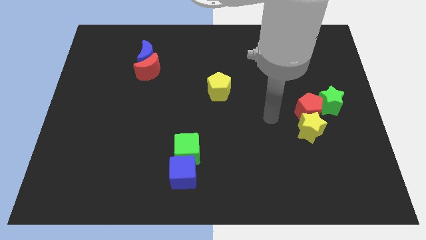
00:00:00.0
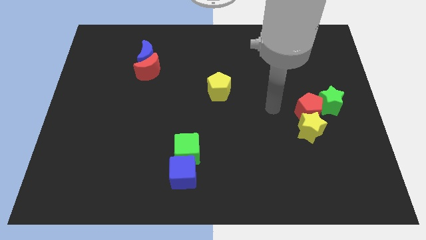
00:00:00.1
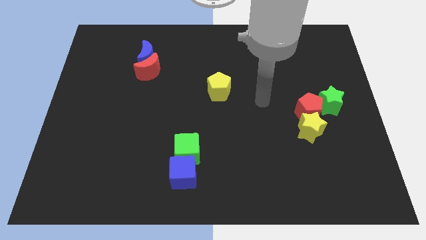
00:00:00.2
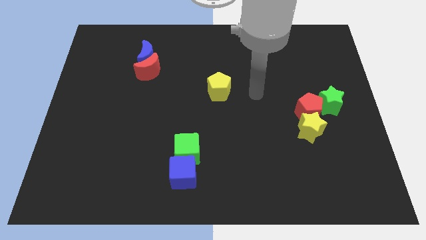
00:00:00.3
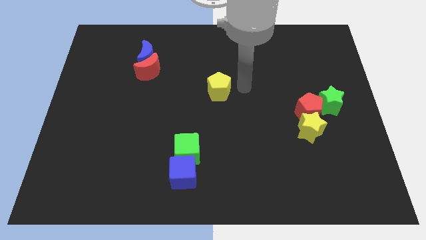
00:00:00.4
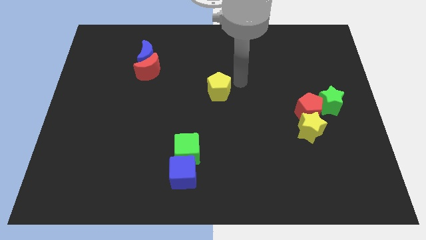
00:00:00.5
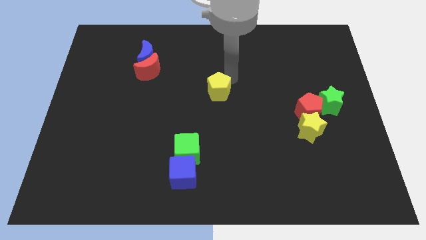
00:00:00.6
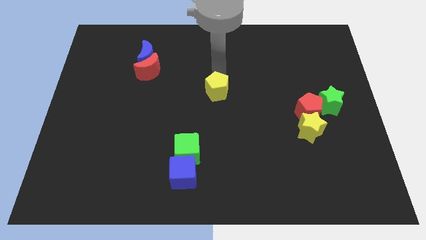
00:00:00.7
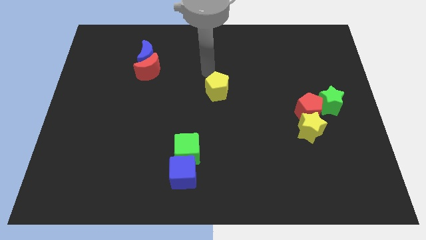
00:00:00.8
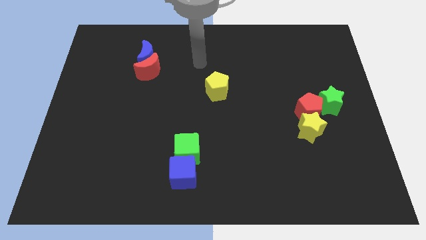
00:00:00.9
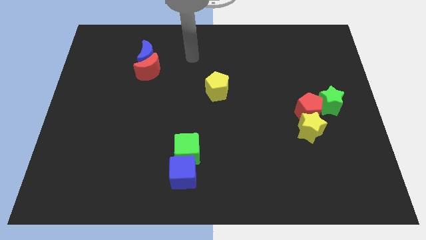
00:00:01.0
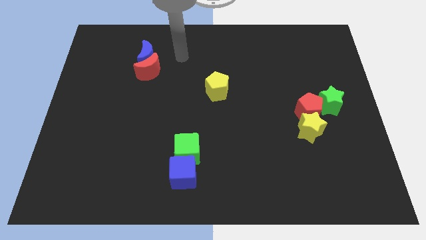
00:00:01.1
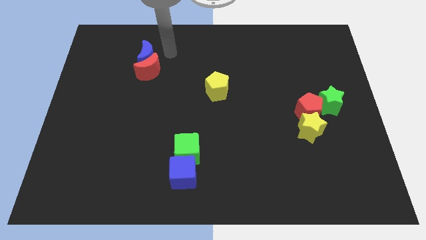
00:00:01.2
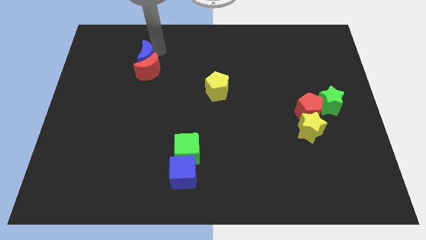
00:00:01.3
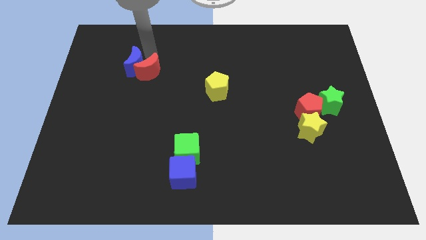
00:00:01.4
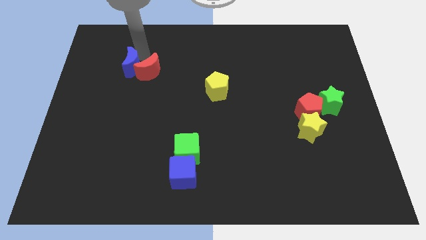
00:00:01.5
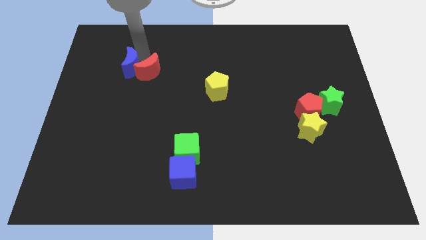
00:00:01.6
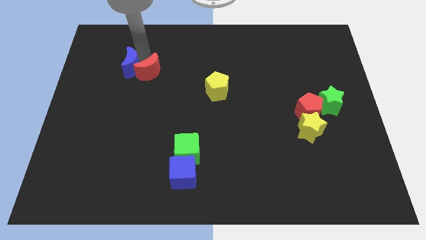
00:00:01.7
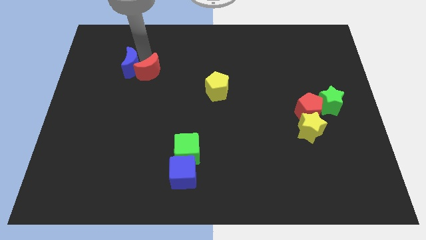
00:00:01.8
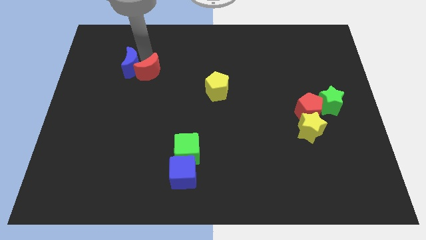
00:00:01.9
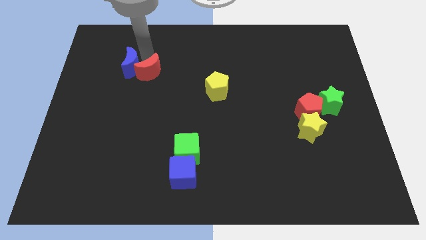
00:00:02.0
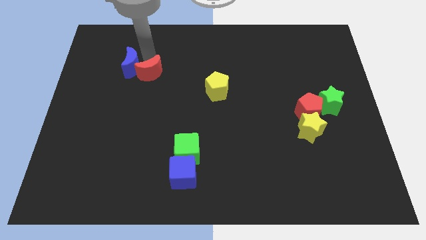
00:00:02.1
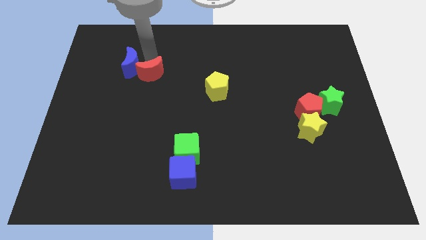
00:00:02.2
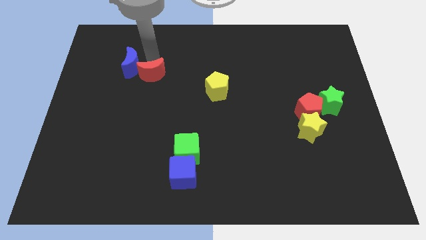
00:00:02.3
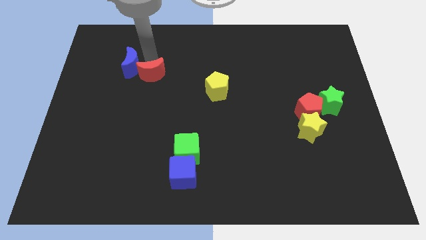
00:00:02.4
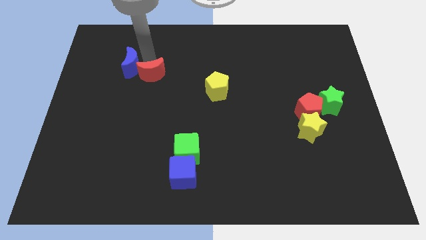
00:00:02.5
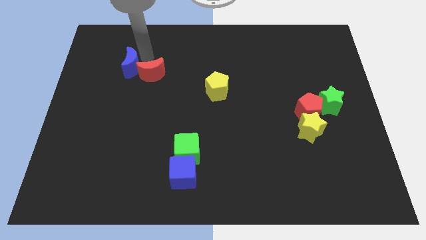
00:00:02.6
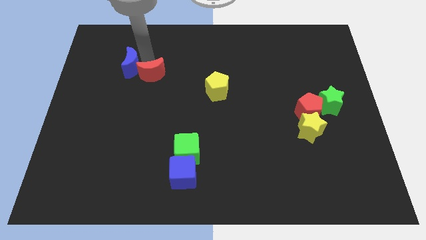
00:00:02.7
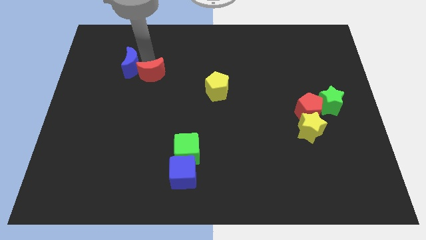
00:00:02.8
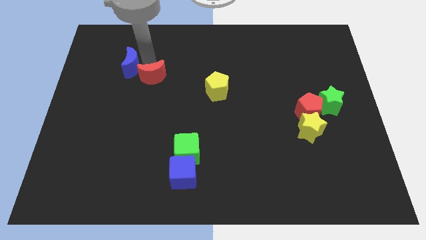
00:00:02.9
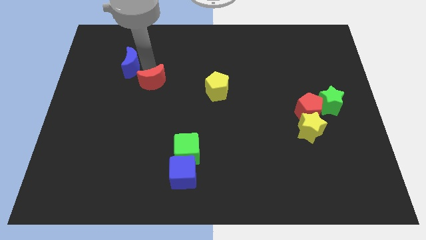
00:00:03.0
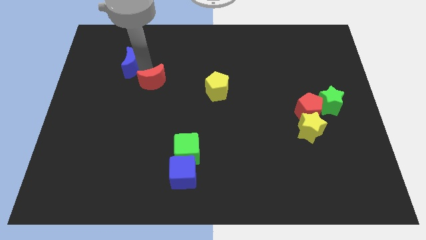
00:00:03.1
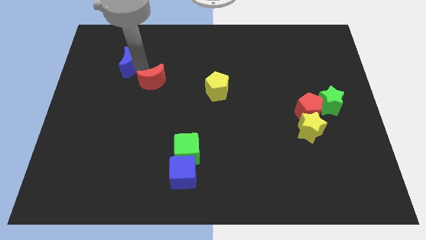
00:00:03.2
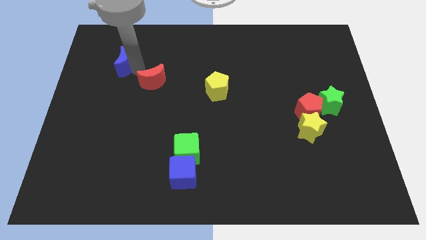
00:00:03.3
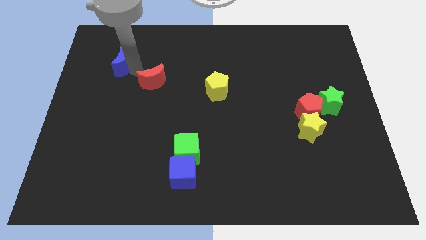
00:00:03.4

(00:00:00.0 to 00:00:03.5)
pull the red moon apart from the blue moon

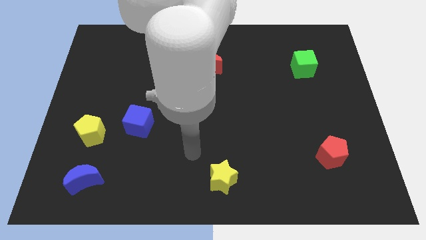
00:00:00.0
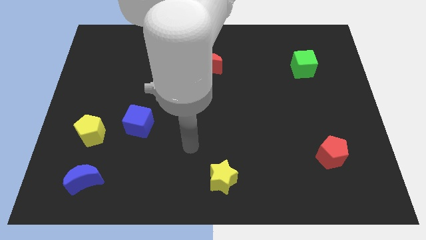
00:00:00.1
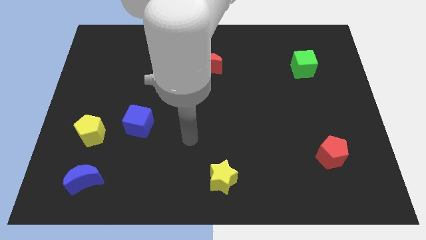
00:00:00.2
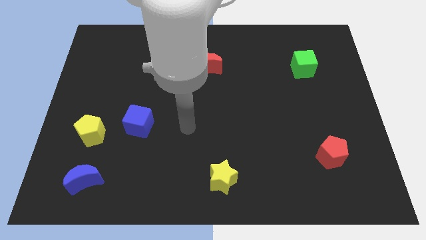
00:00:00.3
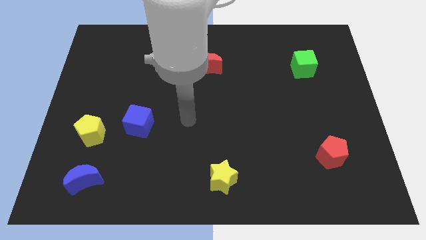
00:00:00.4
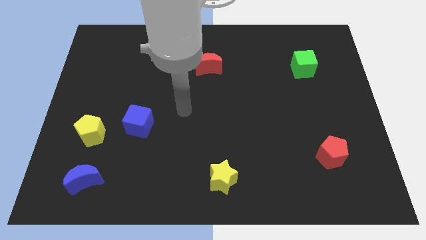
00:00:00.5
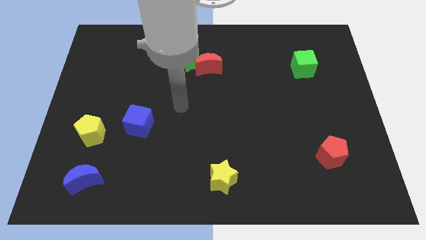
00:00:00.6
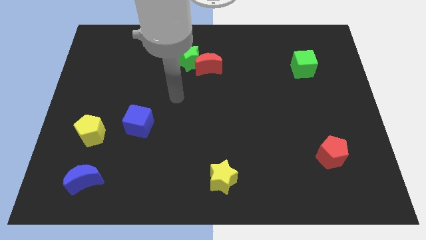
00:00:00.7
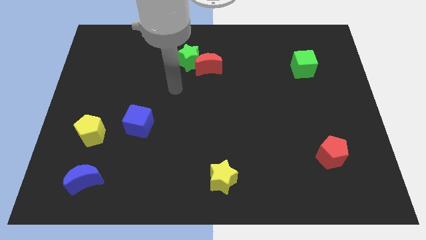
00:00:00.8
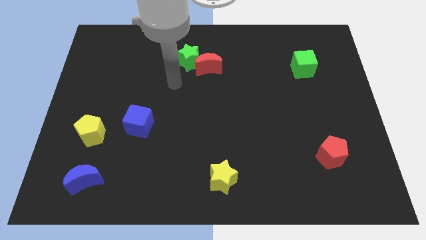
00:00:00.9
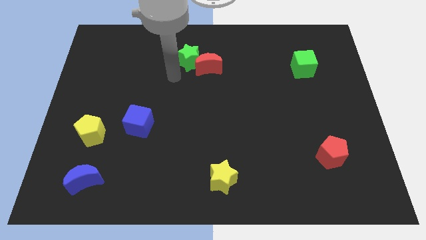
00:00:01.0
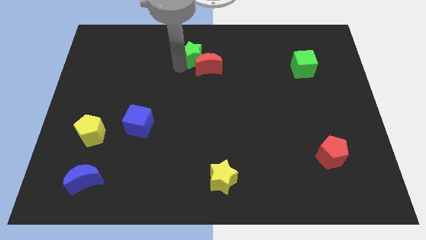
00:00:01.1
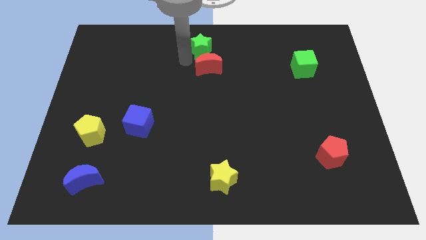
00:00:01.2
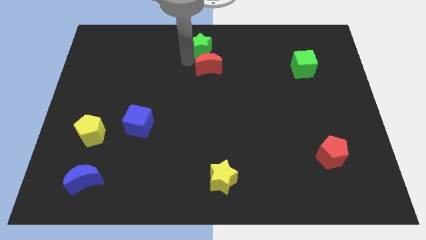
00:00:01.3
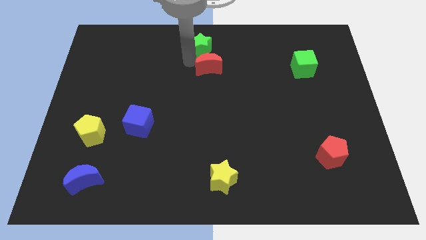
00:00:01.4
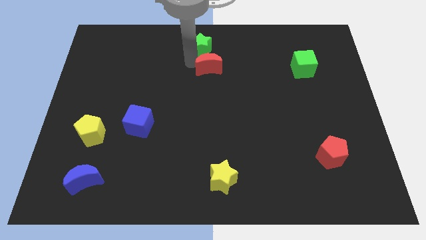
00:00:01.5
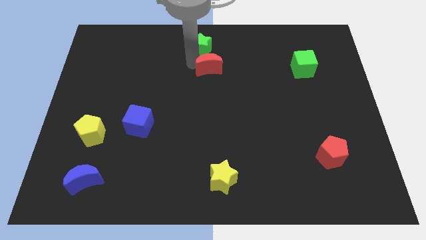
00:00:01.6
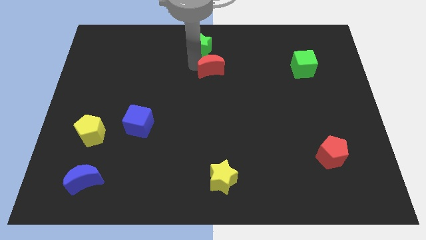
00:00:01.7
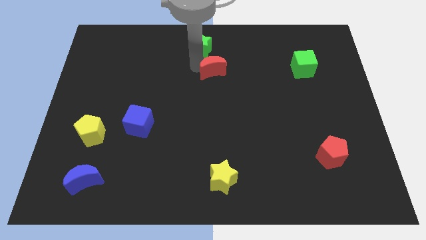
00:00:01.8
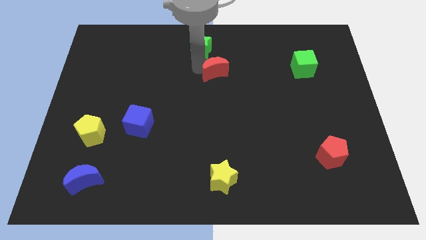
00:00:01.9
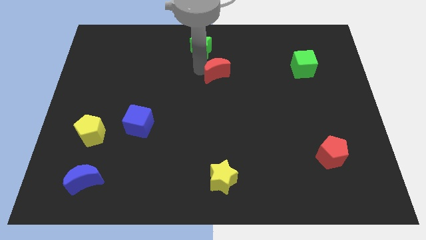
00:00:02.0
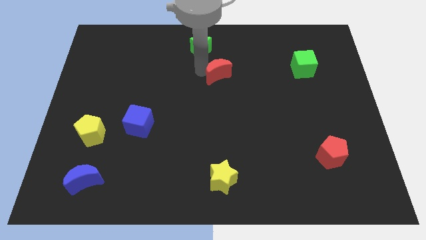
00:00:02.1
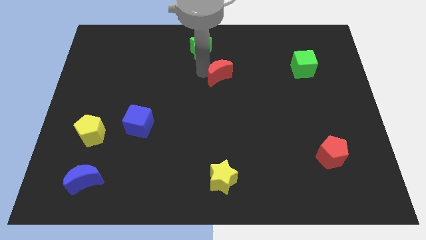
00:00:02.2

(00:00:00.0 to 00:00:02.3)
move the red moon away from the green star

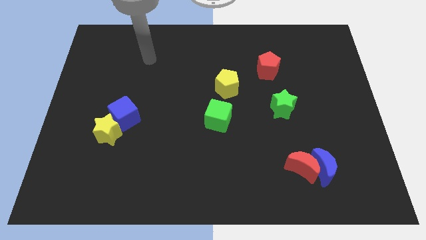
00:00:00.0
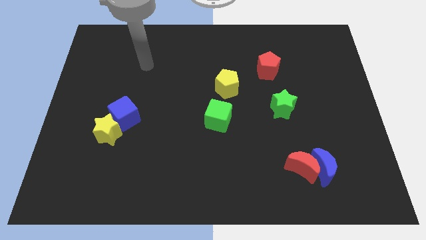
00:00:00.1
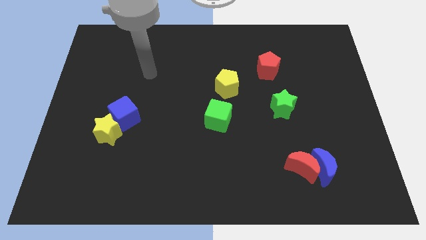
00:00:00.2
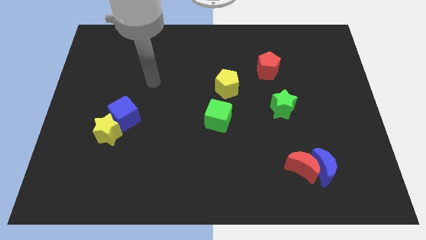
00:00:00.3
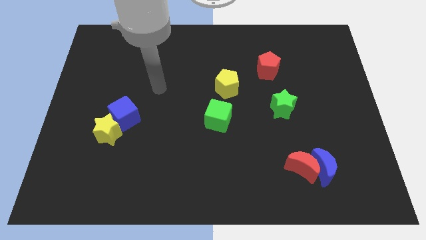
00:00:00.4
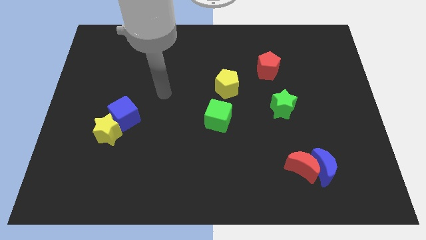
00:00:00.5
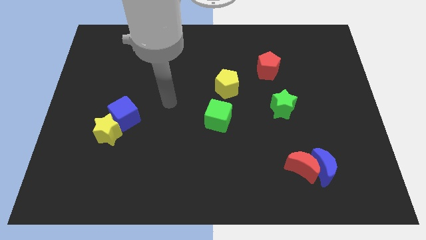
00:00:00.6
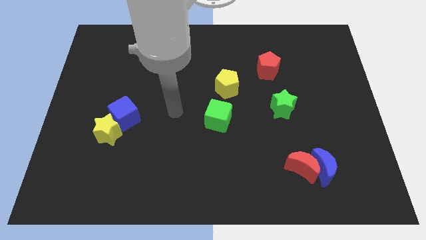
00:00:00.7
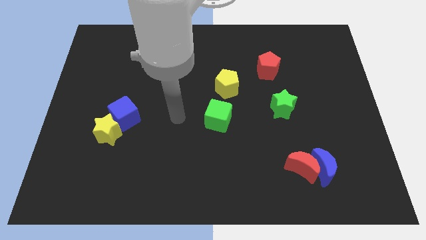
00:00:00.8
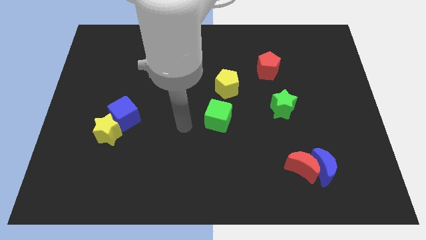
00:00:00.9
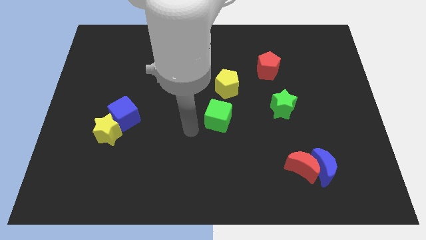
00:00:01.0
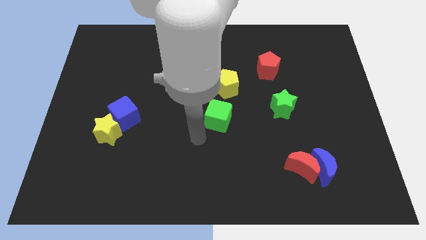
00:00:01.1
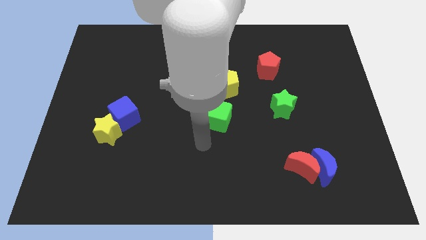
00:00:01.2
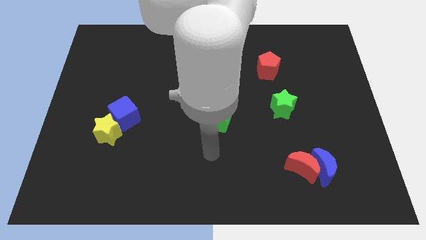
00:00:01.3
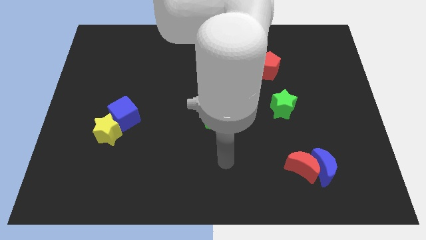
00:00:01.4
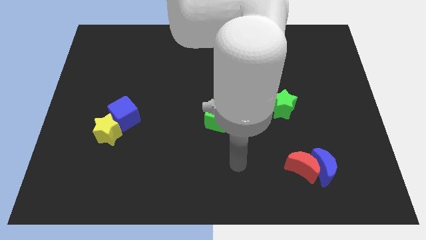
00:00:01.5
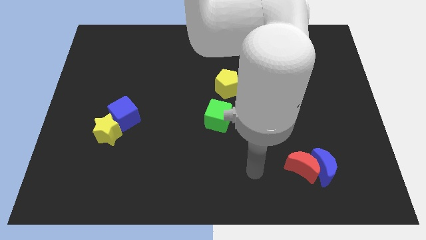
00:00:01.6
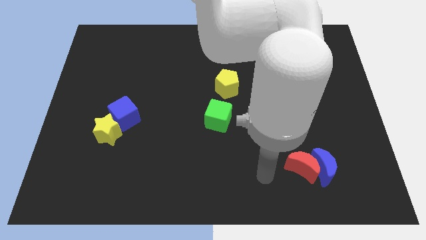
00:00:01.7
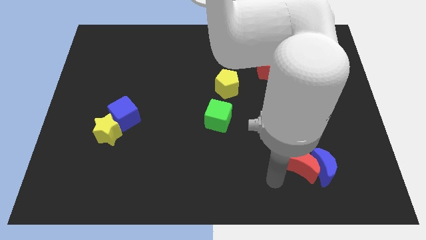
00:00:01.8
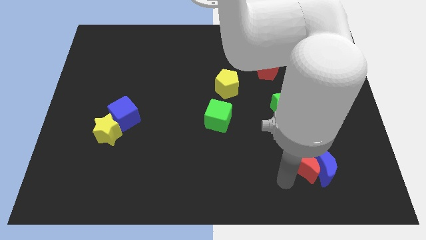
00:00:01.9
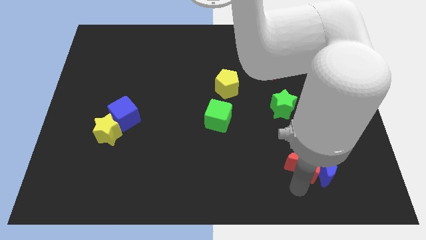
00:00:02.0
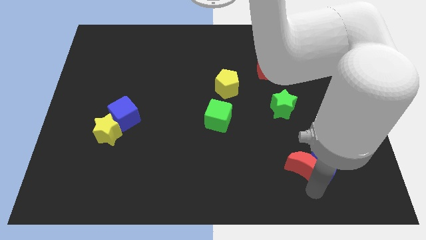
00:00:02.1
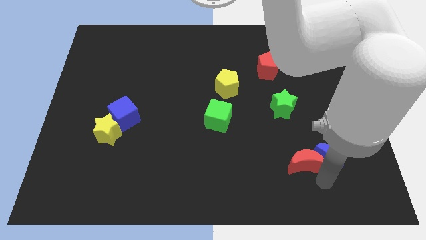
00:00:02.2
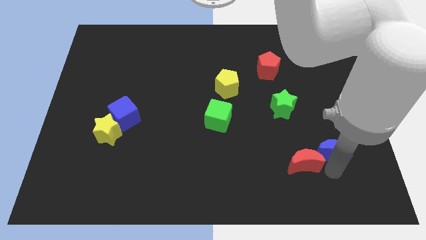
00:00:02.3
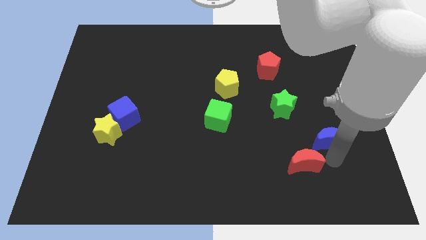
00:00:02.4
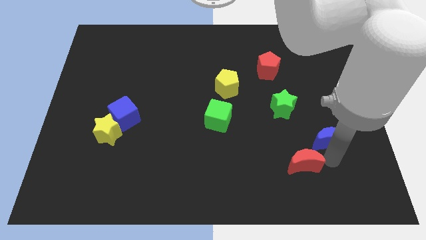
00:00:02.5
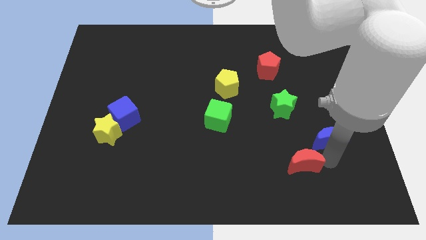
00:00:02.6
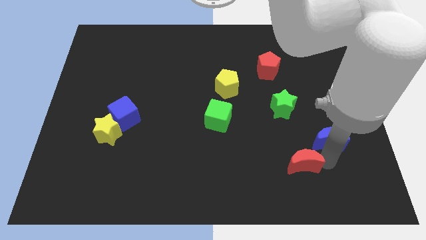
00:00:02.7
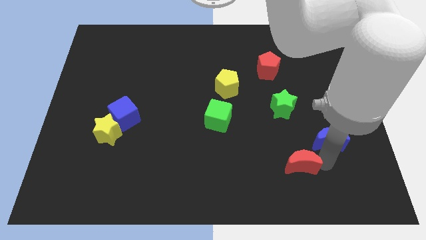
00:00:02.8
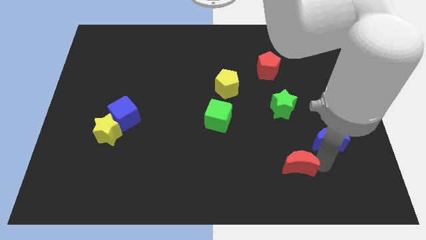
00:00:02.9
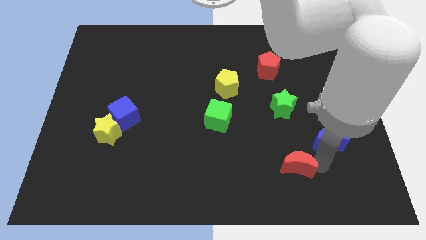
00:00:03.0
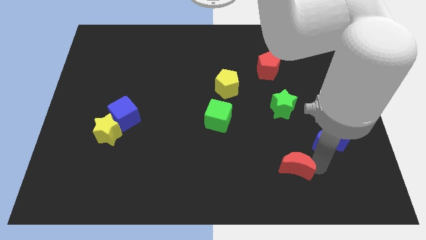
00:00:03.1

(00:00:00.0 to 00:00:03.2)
move the red moon away from the blue moon

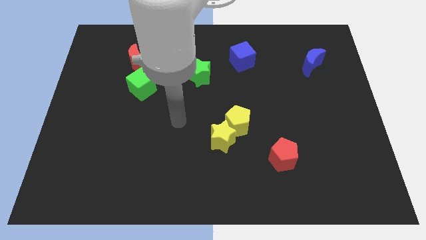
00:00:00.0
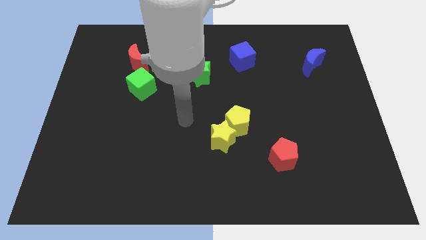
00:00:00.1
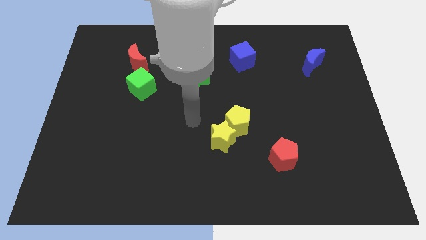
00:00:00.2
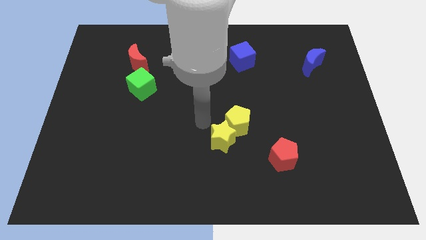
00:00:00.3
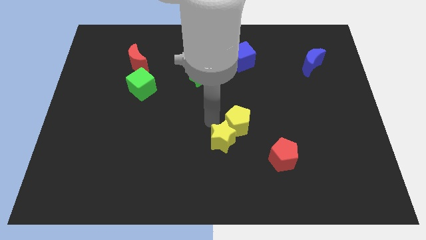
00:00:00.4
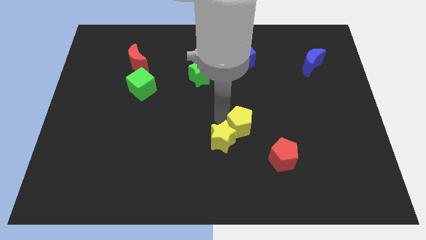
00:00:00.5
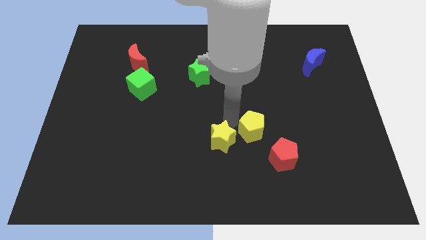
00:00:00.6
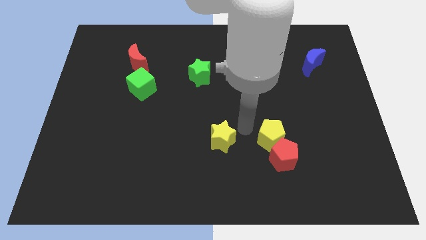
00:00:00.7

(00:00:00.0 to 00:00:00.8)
separate the yellow star from the yellow pentagon
